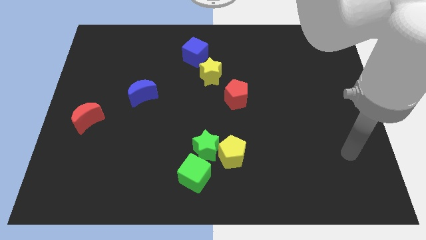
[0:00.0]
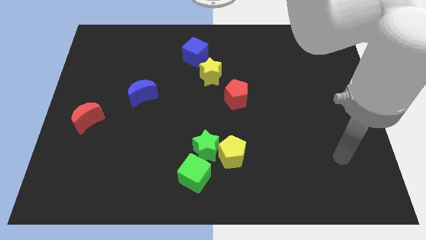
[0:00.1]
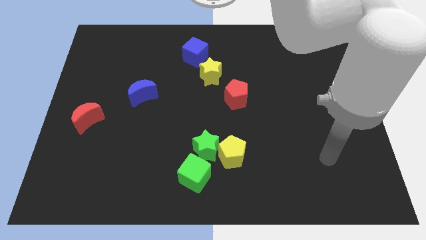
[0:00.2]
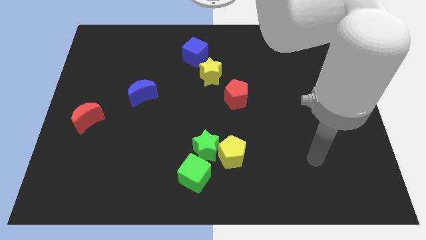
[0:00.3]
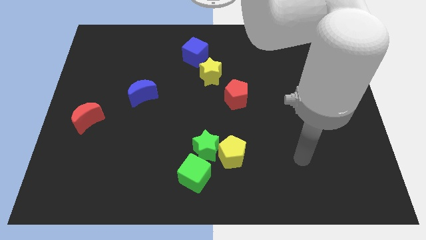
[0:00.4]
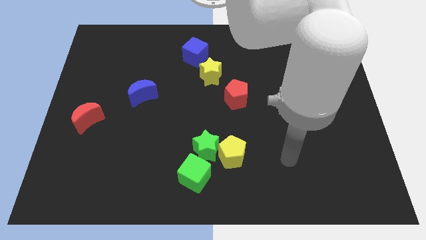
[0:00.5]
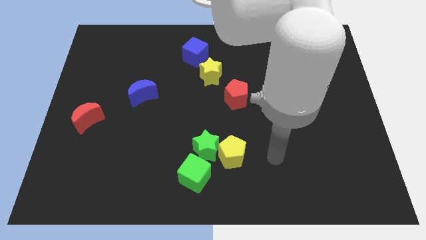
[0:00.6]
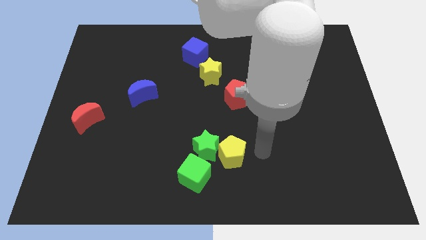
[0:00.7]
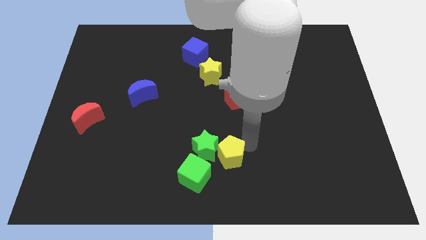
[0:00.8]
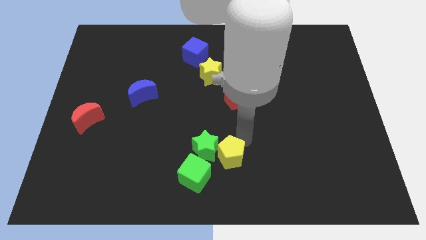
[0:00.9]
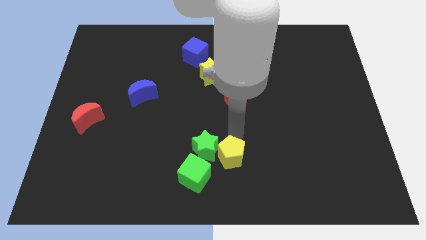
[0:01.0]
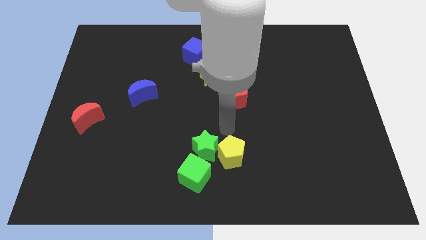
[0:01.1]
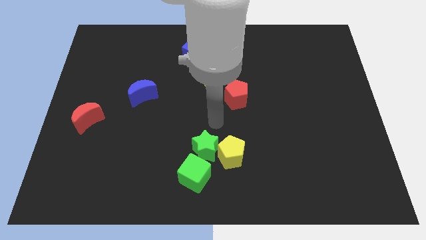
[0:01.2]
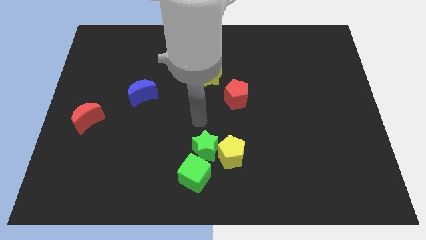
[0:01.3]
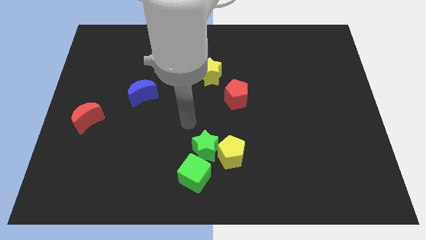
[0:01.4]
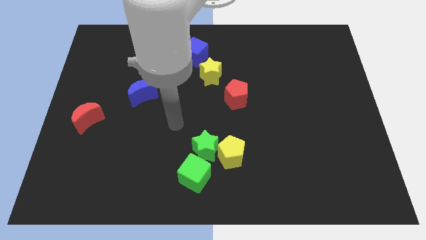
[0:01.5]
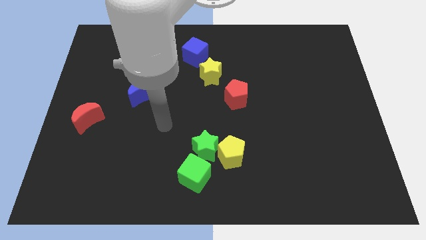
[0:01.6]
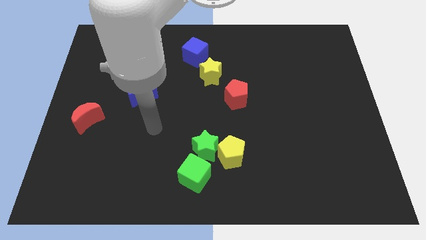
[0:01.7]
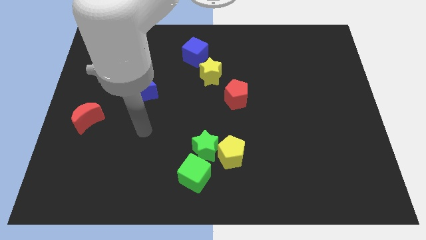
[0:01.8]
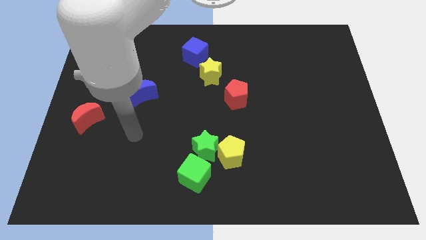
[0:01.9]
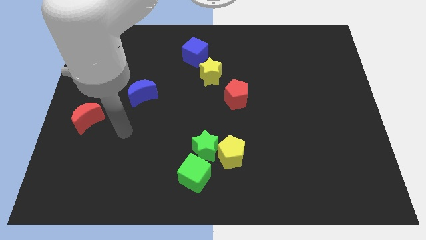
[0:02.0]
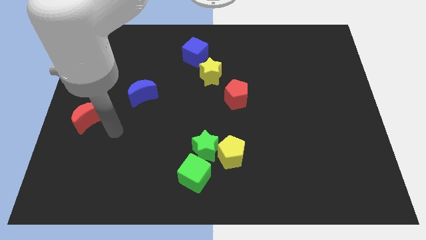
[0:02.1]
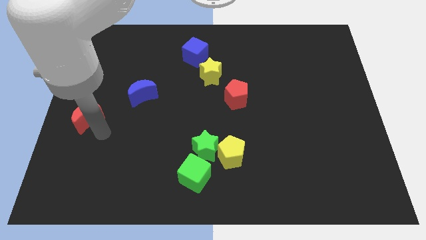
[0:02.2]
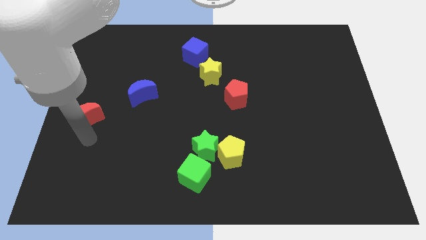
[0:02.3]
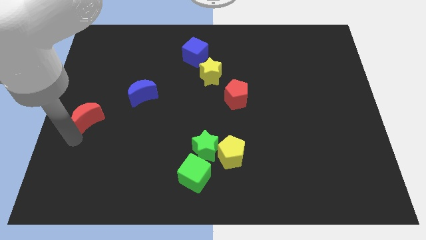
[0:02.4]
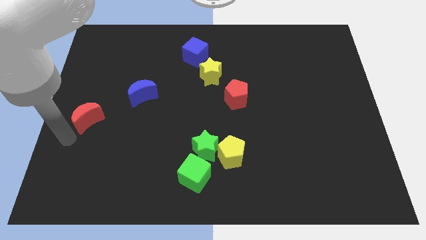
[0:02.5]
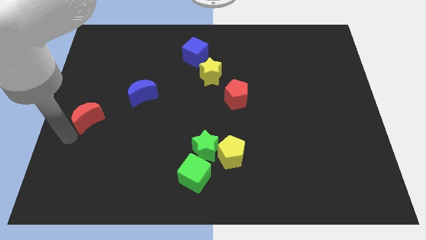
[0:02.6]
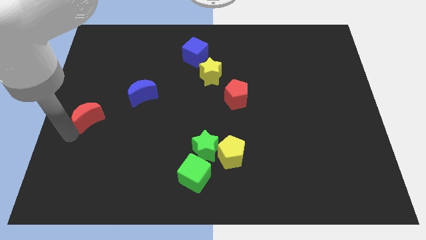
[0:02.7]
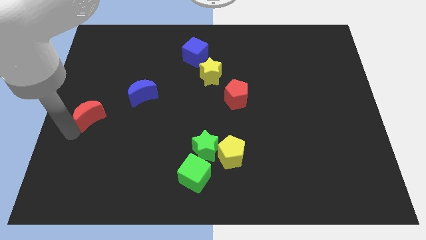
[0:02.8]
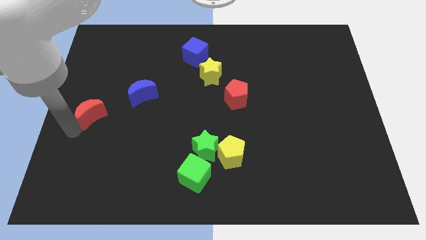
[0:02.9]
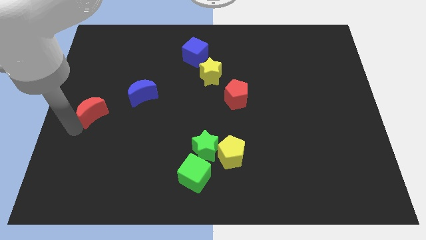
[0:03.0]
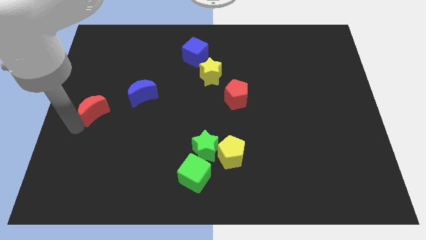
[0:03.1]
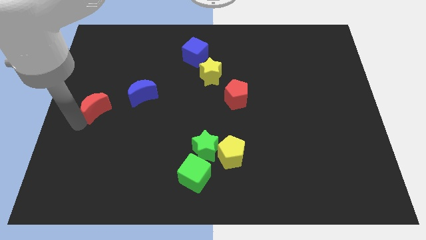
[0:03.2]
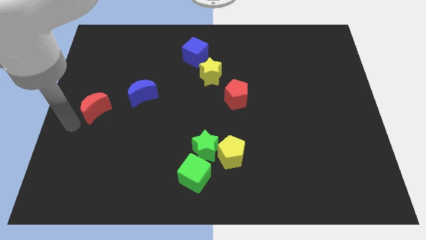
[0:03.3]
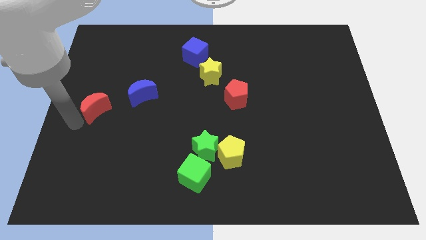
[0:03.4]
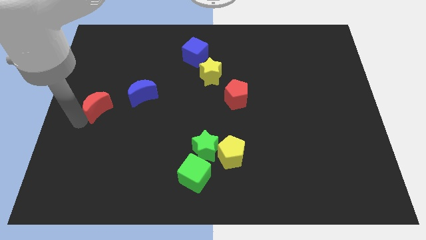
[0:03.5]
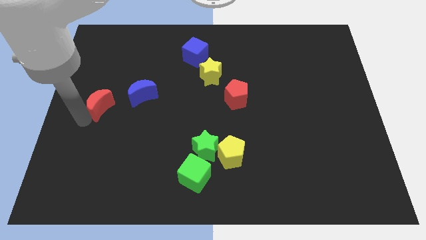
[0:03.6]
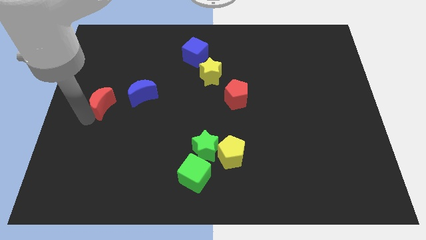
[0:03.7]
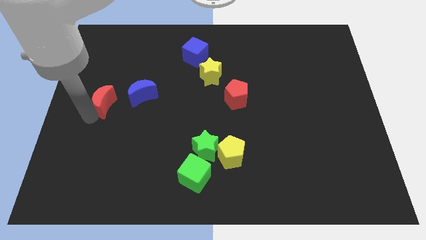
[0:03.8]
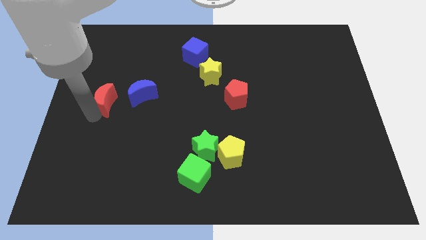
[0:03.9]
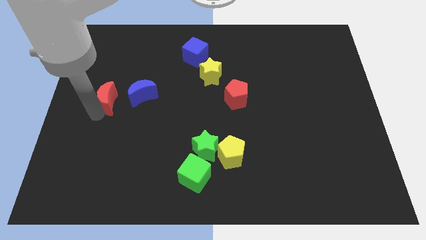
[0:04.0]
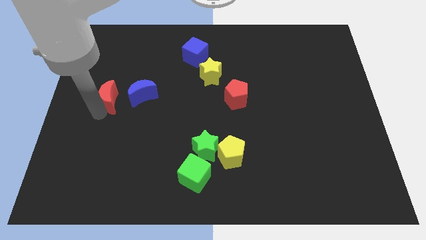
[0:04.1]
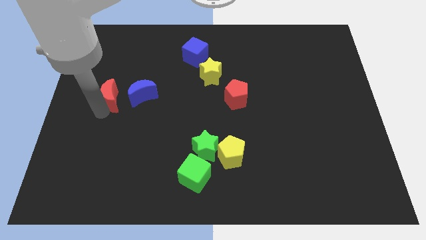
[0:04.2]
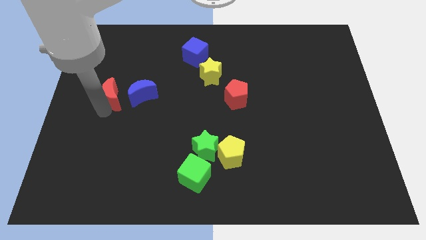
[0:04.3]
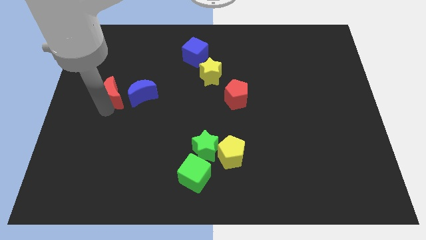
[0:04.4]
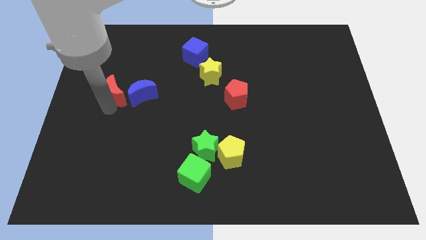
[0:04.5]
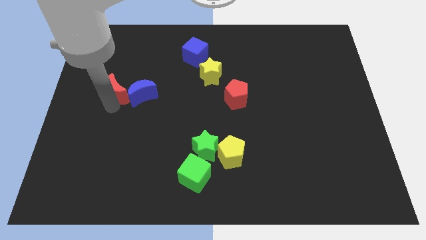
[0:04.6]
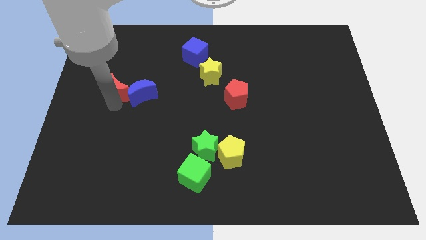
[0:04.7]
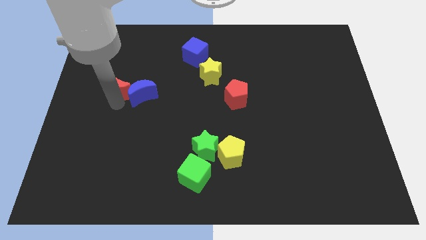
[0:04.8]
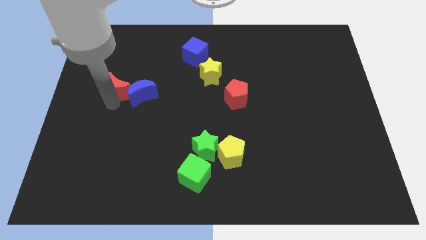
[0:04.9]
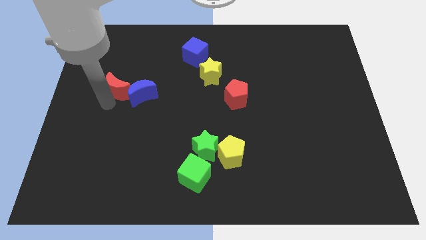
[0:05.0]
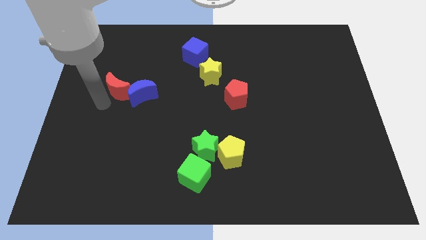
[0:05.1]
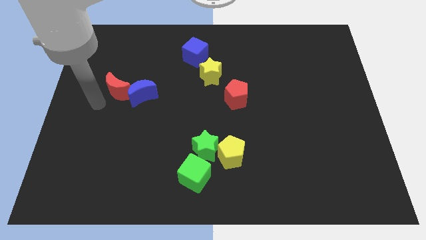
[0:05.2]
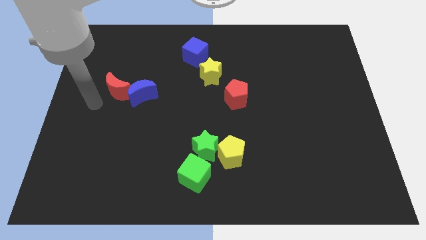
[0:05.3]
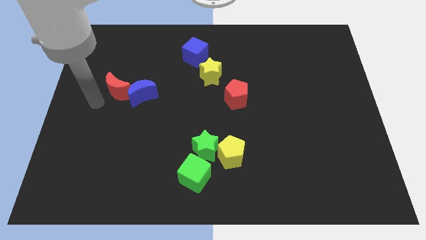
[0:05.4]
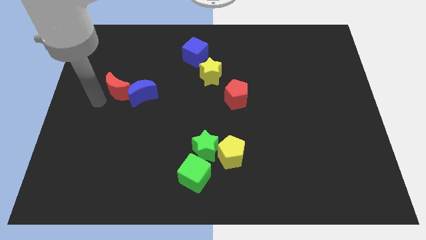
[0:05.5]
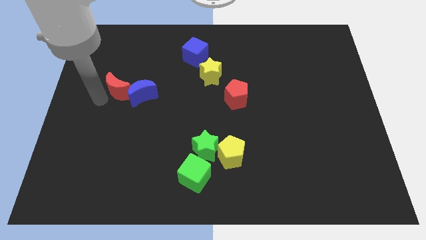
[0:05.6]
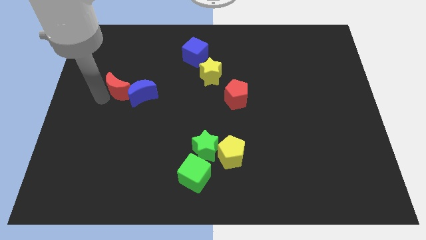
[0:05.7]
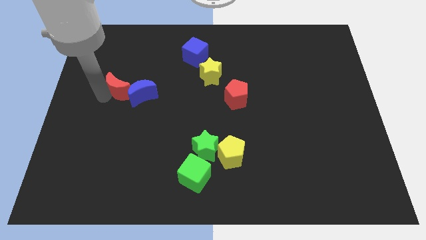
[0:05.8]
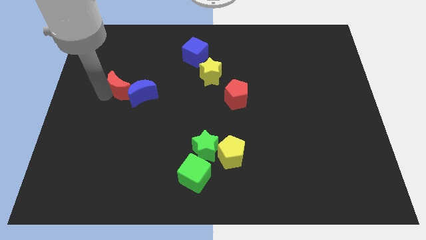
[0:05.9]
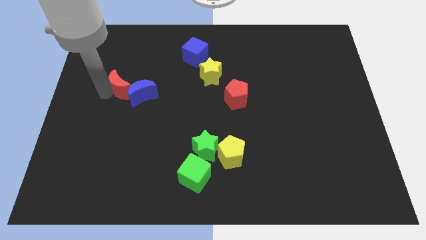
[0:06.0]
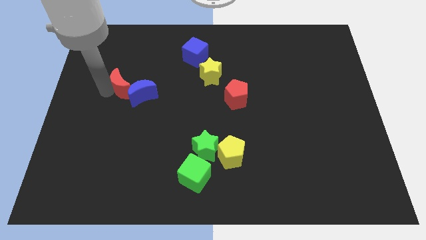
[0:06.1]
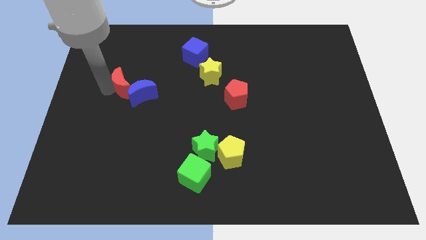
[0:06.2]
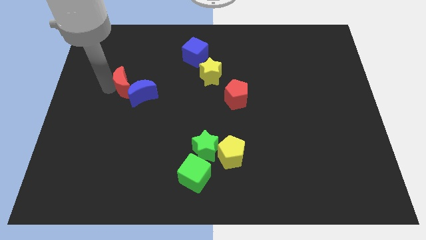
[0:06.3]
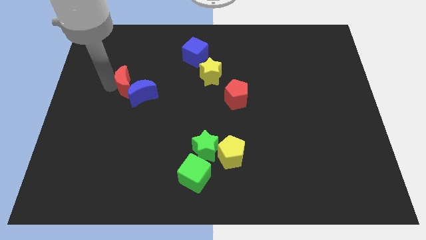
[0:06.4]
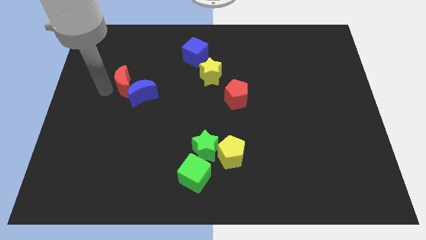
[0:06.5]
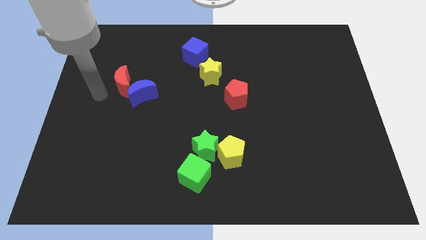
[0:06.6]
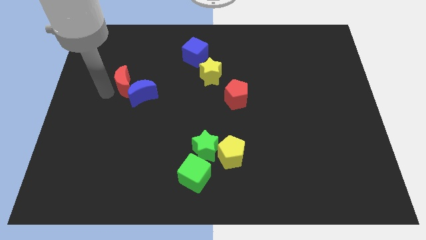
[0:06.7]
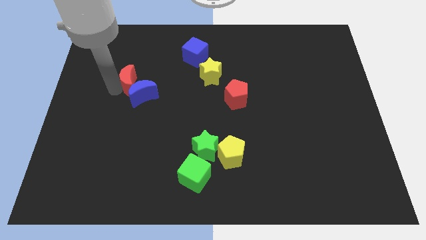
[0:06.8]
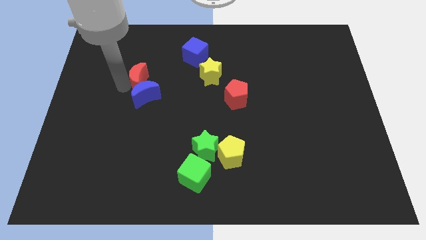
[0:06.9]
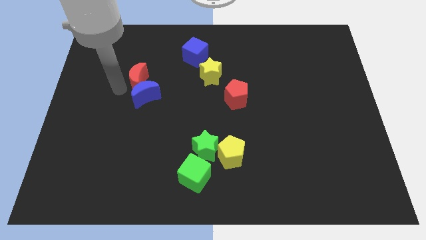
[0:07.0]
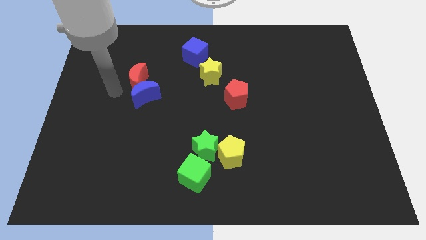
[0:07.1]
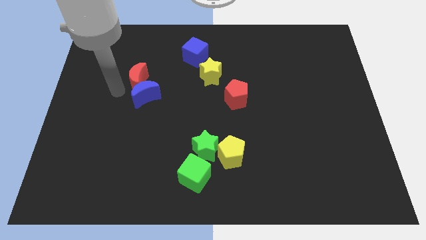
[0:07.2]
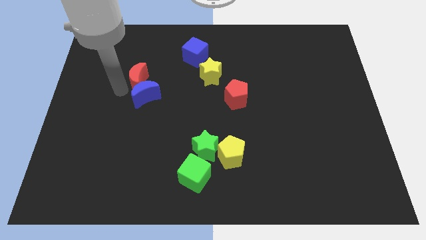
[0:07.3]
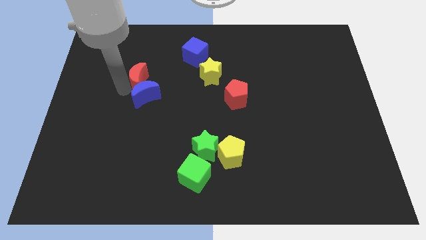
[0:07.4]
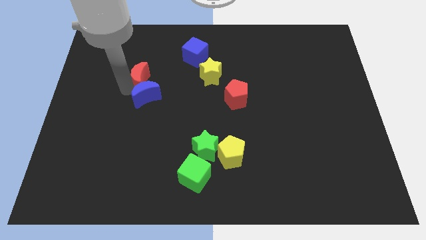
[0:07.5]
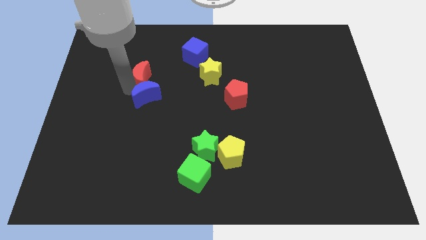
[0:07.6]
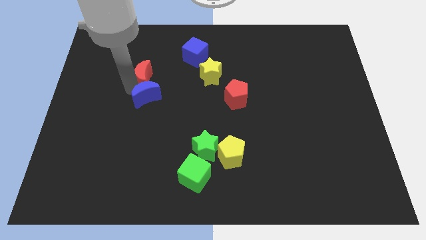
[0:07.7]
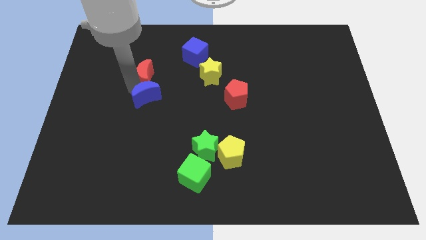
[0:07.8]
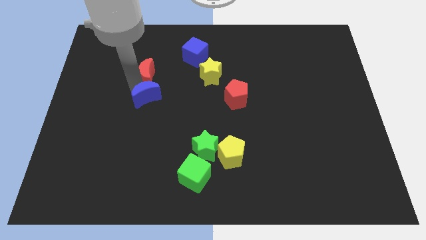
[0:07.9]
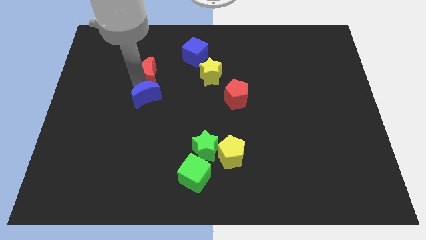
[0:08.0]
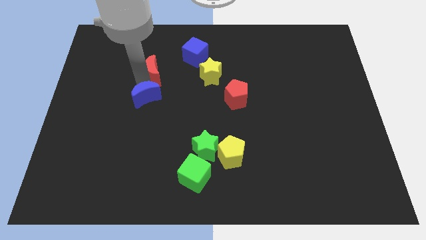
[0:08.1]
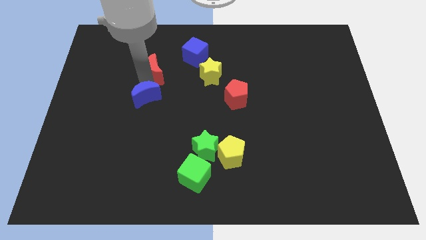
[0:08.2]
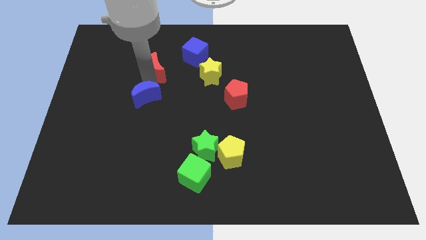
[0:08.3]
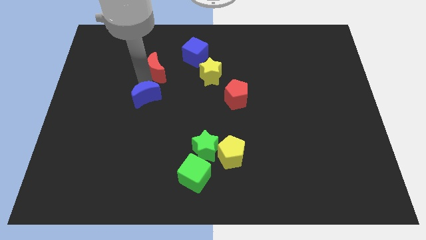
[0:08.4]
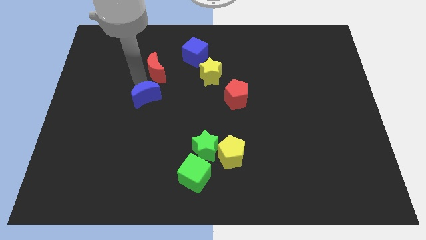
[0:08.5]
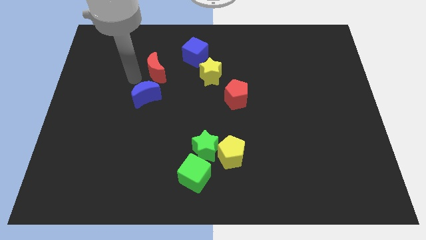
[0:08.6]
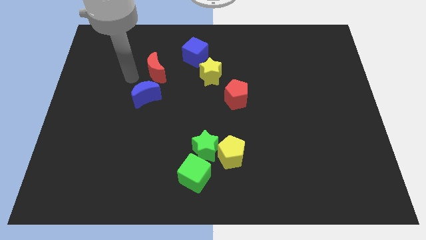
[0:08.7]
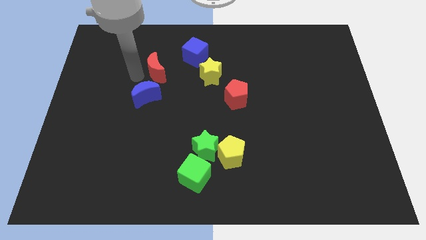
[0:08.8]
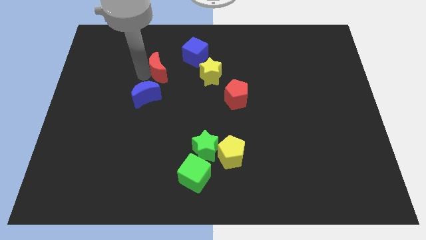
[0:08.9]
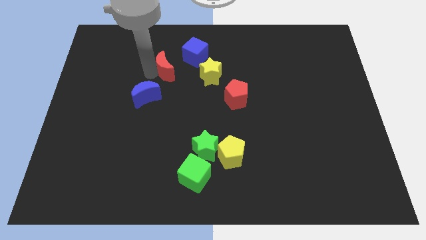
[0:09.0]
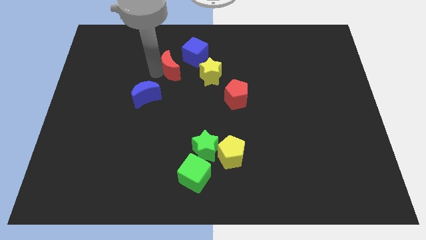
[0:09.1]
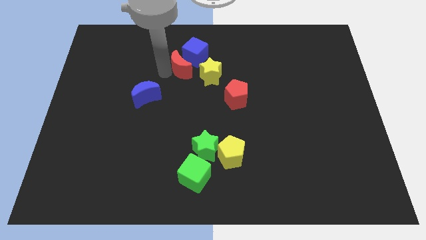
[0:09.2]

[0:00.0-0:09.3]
slide the red moon close to the blue cube
